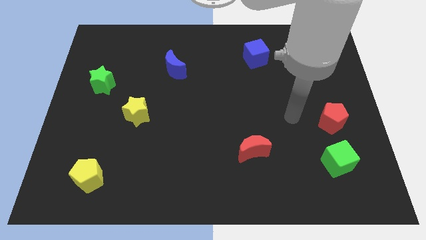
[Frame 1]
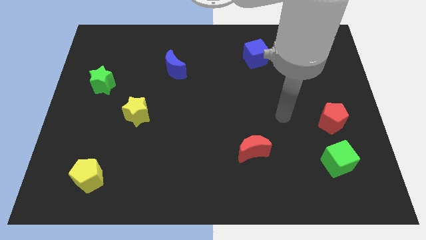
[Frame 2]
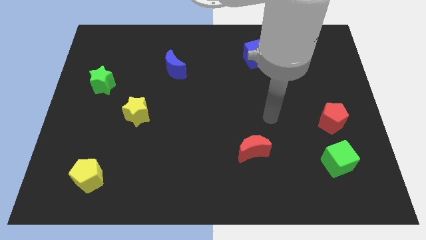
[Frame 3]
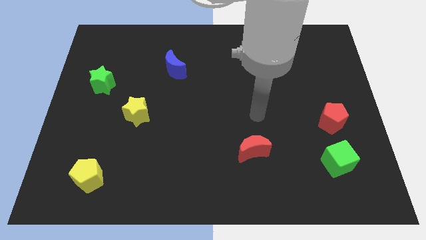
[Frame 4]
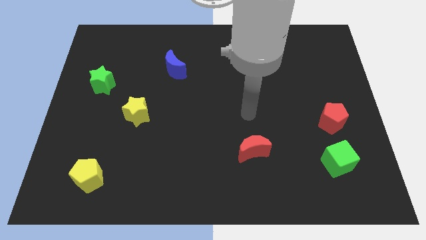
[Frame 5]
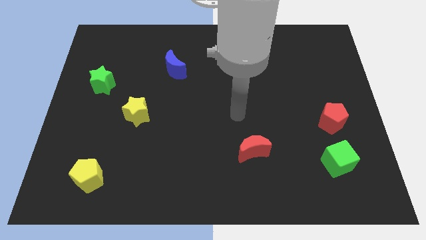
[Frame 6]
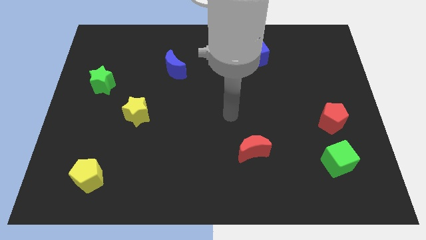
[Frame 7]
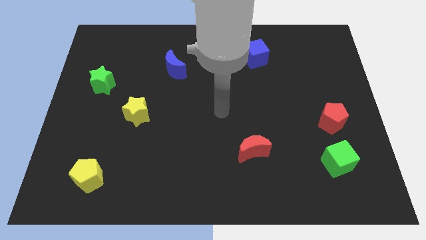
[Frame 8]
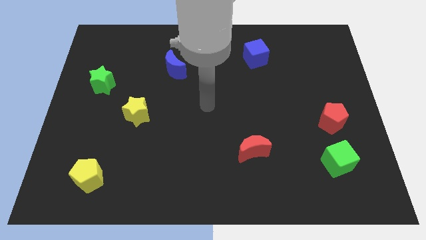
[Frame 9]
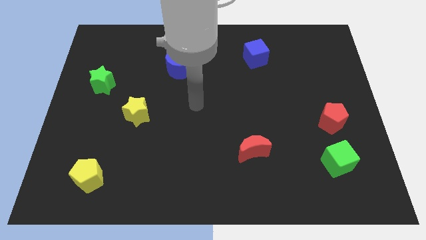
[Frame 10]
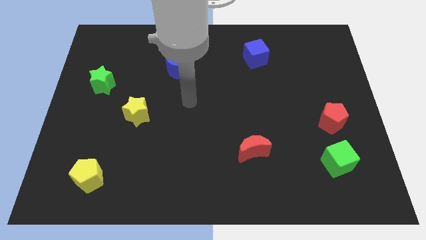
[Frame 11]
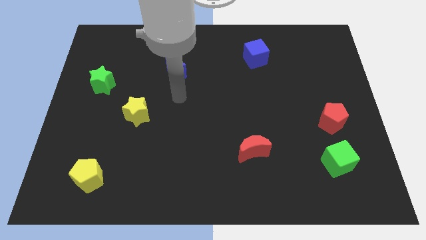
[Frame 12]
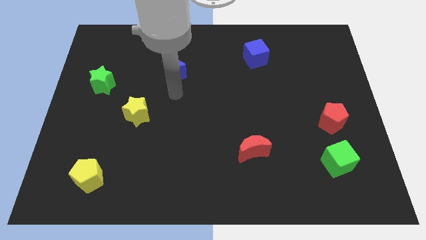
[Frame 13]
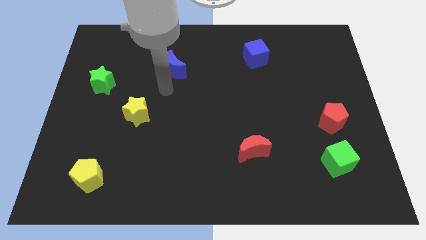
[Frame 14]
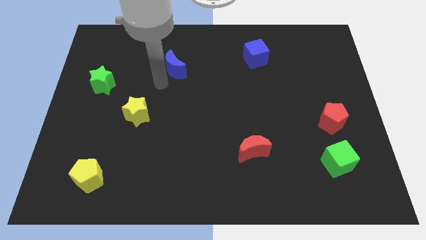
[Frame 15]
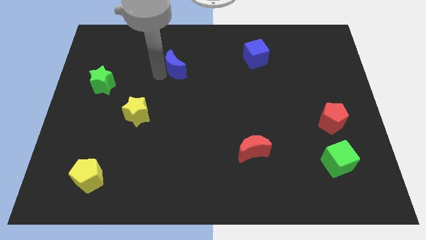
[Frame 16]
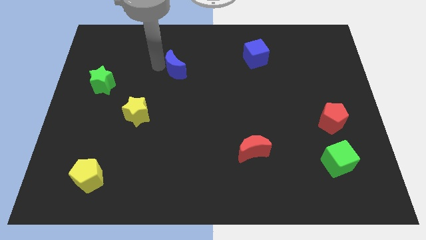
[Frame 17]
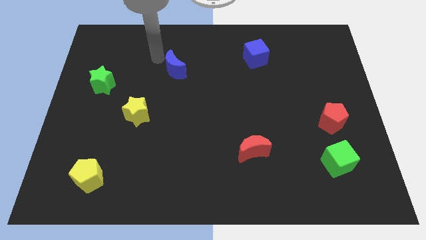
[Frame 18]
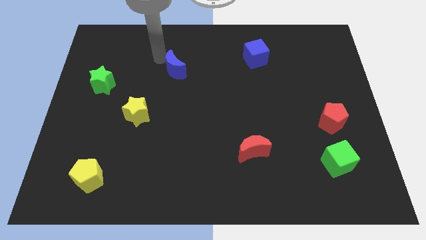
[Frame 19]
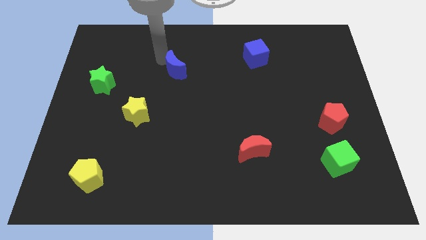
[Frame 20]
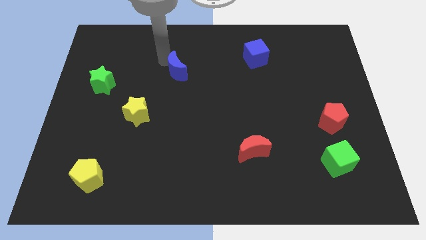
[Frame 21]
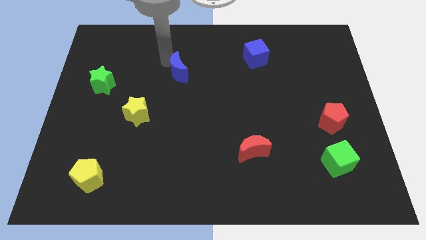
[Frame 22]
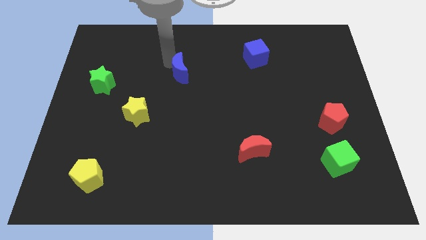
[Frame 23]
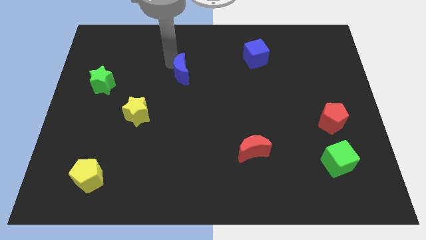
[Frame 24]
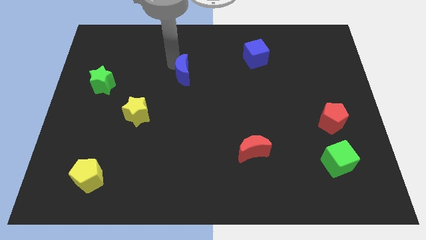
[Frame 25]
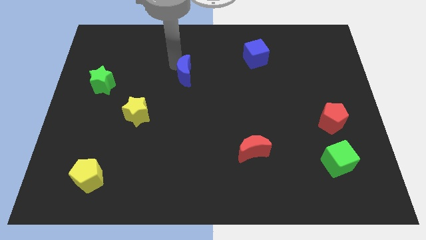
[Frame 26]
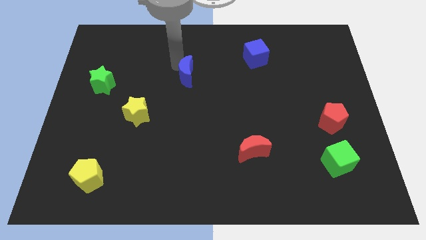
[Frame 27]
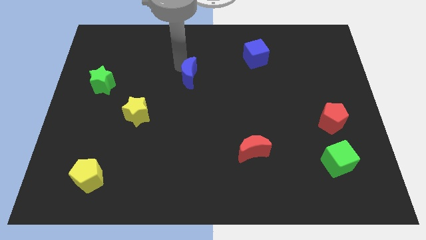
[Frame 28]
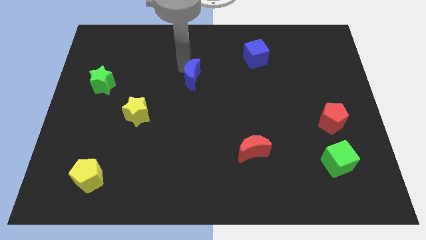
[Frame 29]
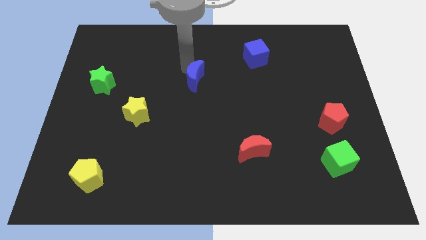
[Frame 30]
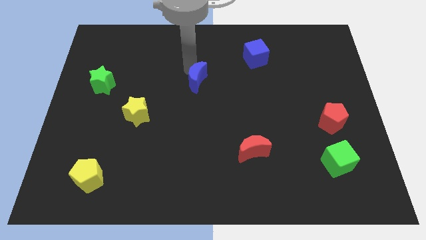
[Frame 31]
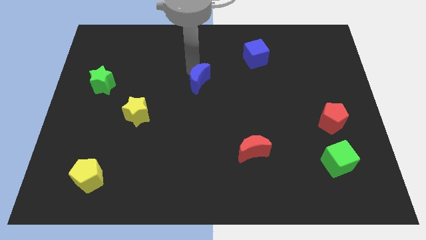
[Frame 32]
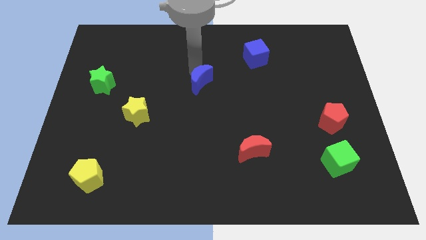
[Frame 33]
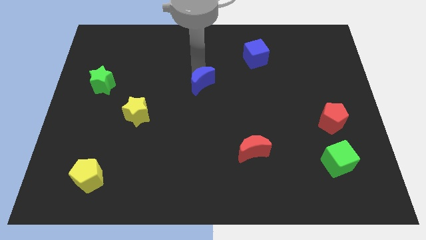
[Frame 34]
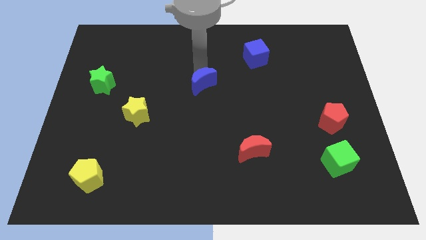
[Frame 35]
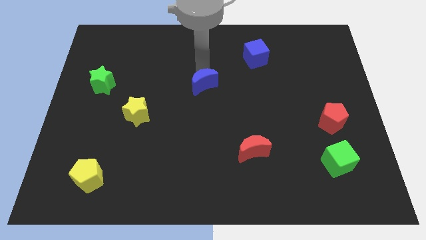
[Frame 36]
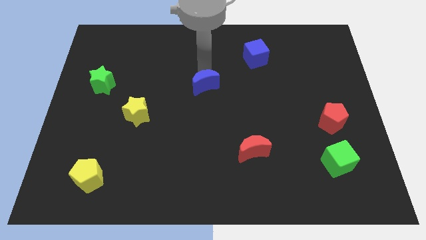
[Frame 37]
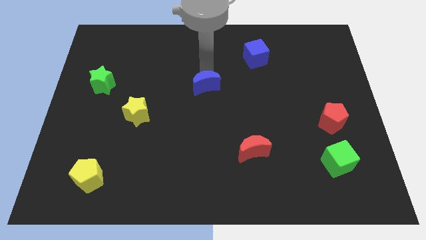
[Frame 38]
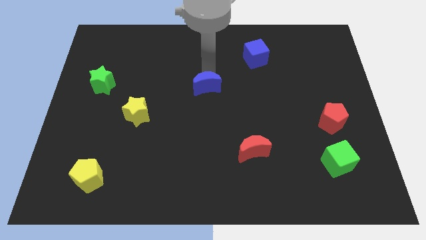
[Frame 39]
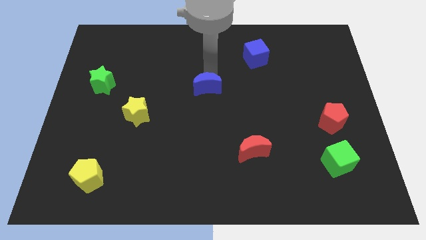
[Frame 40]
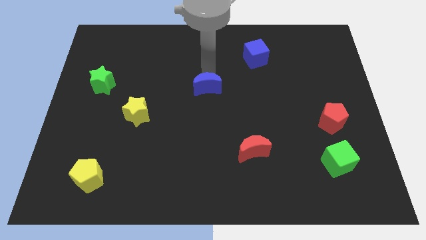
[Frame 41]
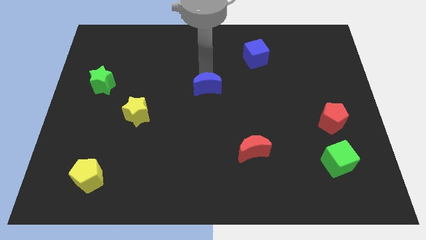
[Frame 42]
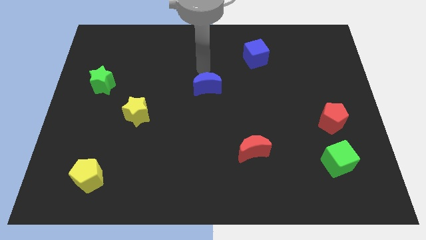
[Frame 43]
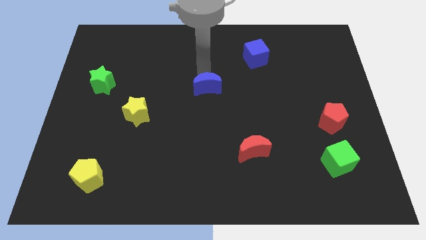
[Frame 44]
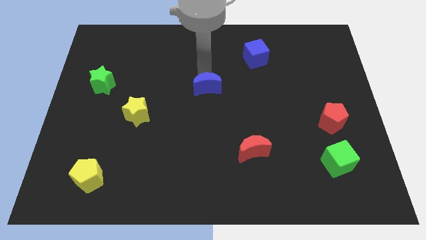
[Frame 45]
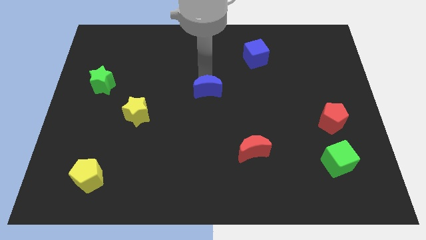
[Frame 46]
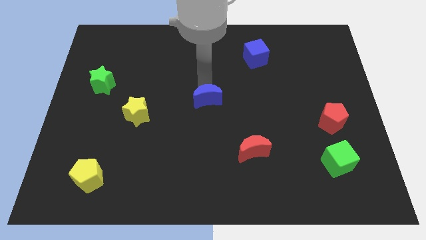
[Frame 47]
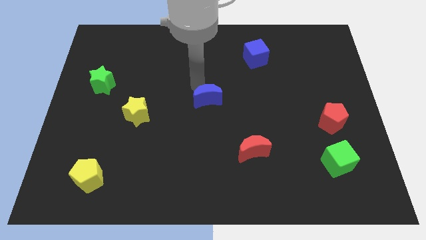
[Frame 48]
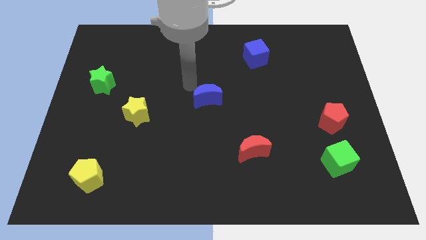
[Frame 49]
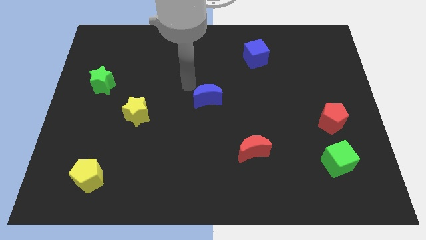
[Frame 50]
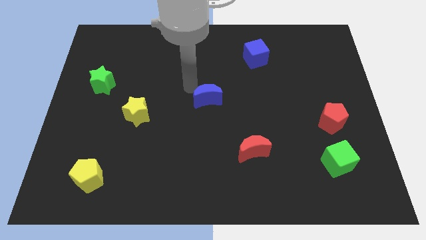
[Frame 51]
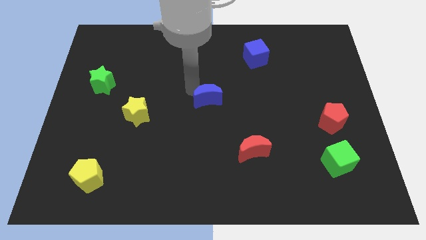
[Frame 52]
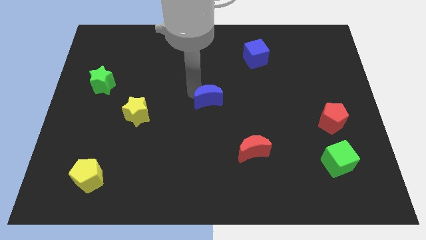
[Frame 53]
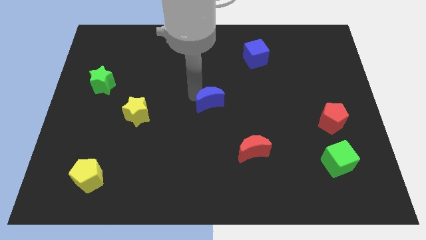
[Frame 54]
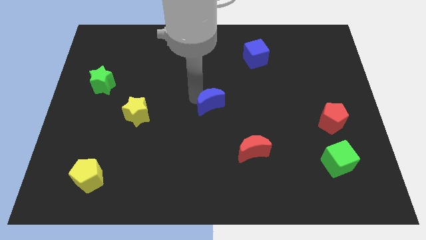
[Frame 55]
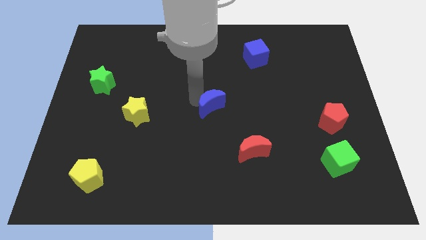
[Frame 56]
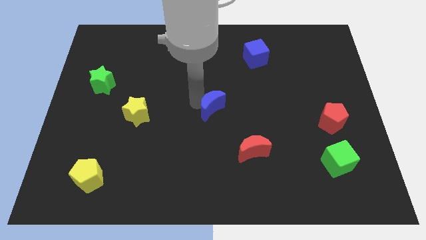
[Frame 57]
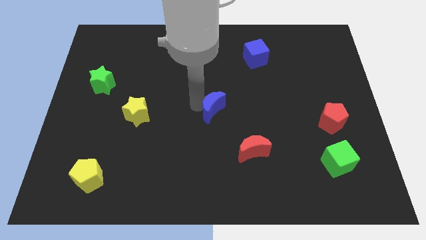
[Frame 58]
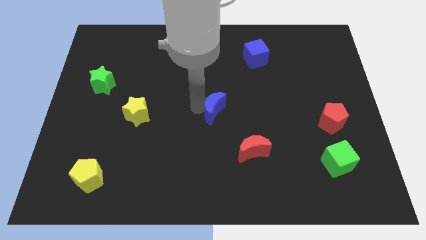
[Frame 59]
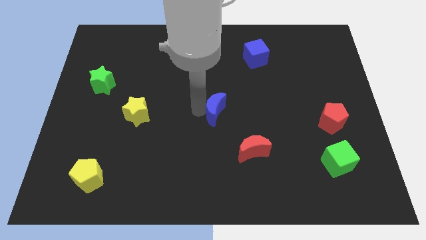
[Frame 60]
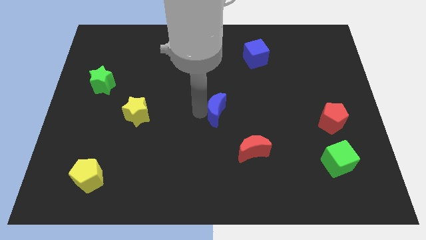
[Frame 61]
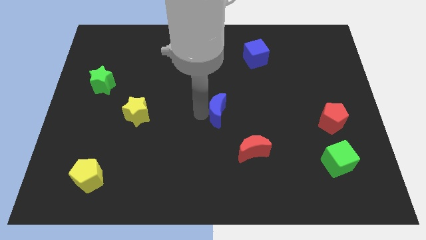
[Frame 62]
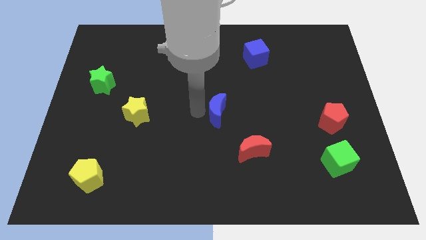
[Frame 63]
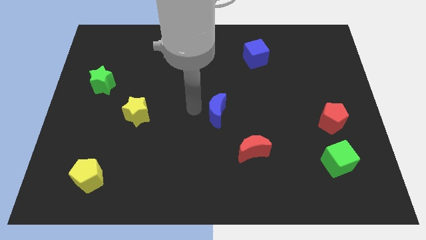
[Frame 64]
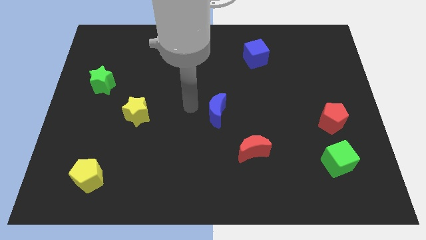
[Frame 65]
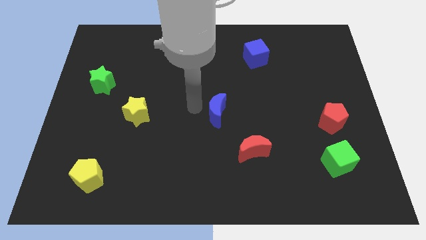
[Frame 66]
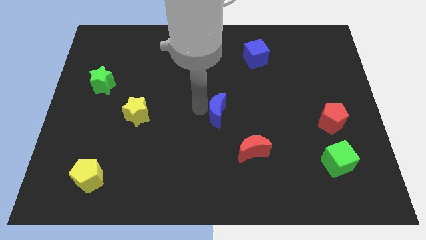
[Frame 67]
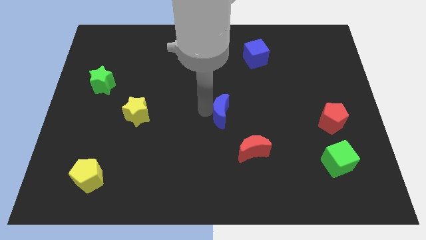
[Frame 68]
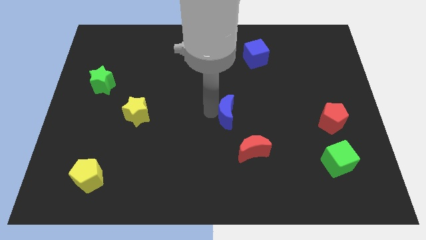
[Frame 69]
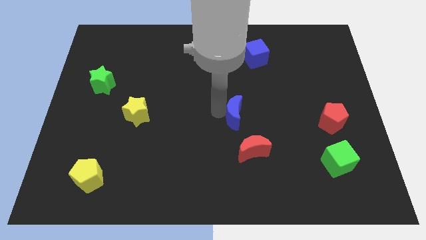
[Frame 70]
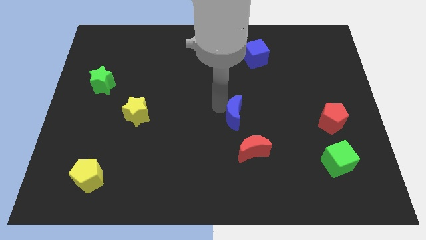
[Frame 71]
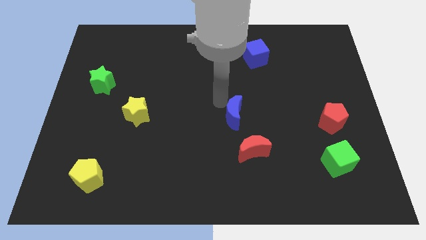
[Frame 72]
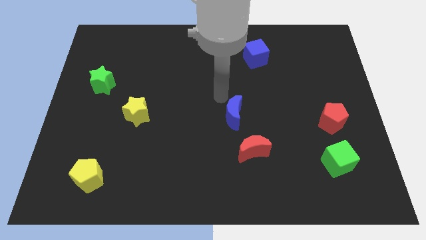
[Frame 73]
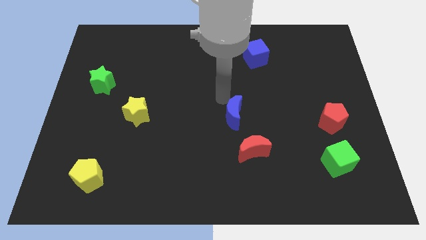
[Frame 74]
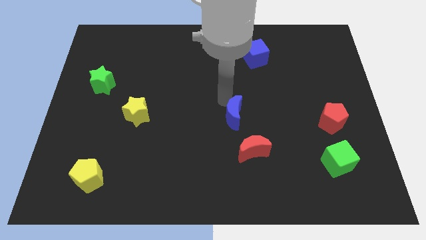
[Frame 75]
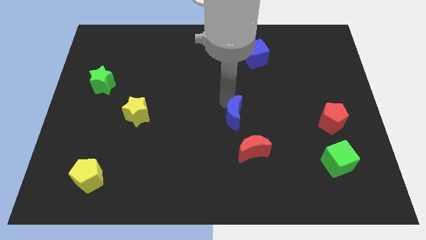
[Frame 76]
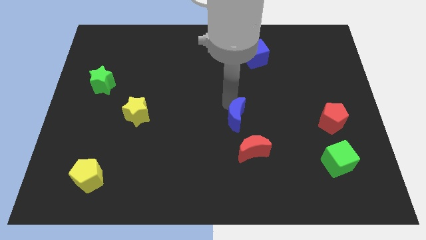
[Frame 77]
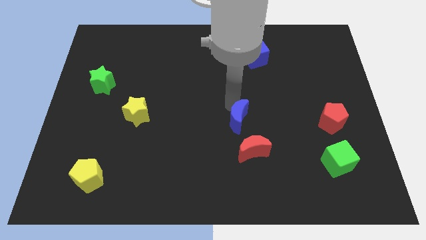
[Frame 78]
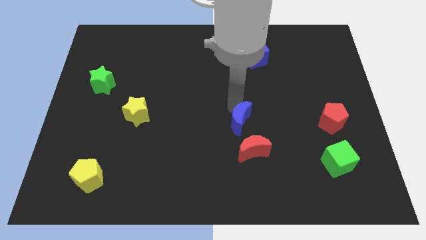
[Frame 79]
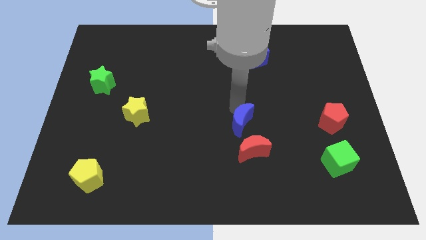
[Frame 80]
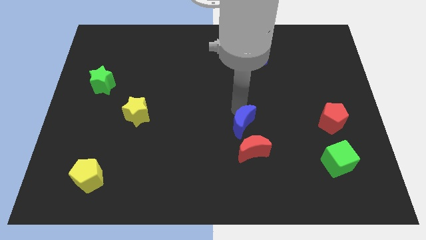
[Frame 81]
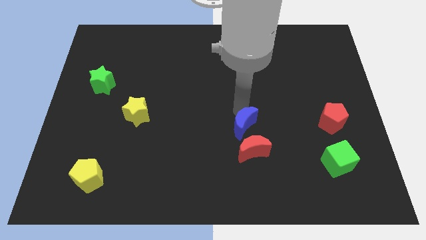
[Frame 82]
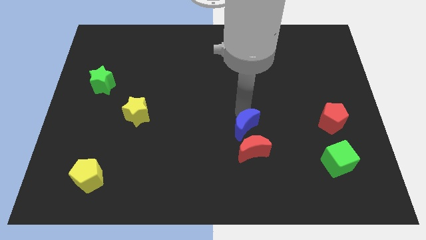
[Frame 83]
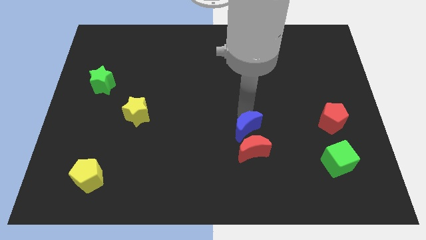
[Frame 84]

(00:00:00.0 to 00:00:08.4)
slide the blue moon close to the red moon
